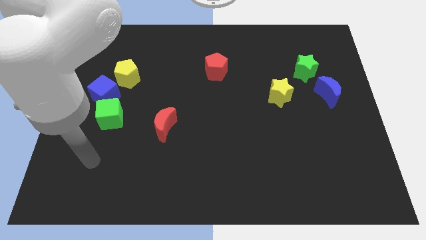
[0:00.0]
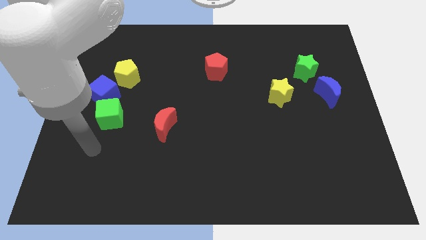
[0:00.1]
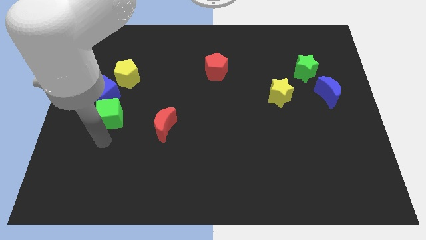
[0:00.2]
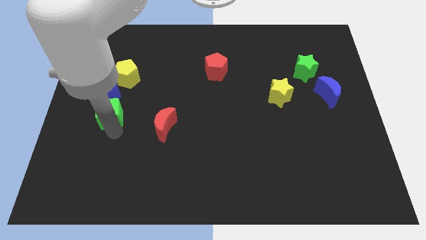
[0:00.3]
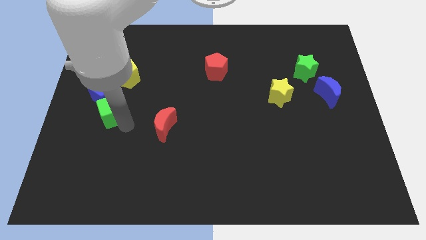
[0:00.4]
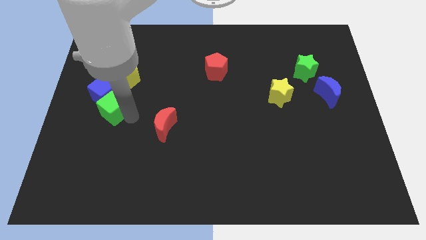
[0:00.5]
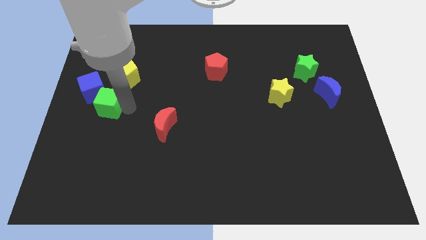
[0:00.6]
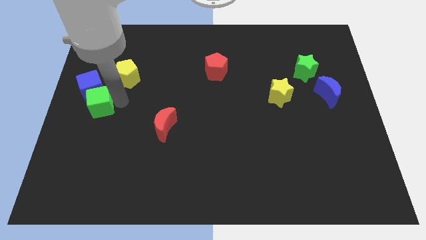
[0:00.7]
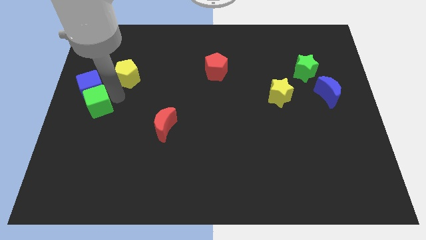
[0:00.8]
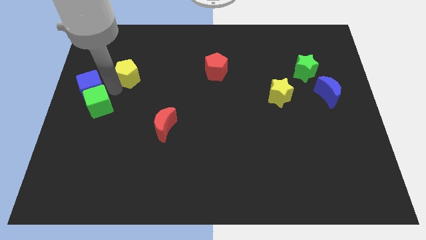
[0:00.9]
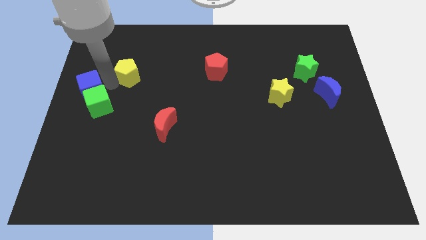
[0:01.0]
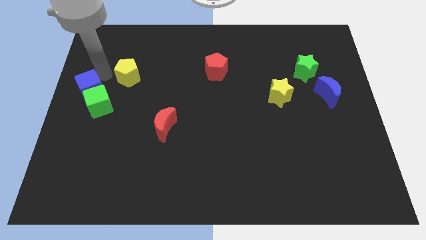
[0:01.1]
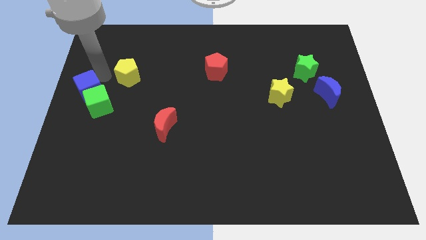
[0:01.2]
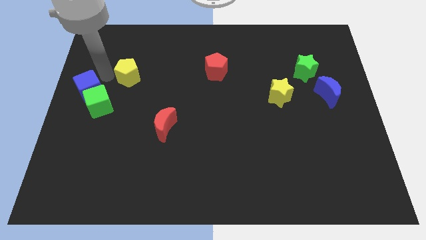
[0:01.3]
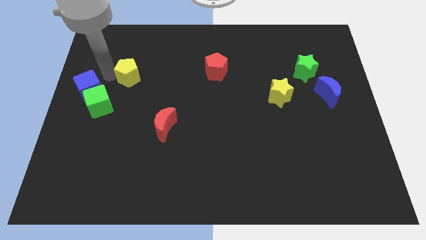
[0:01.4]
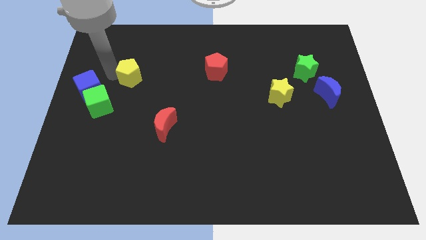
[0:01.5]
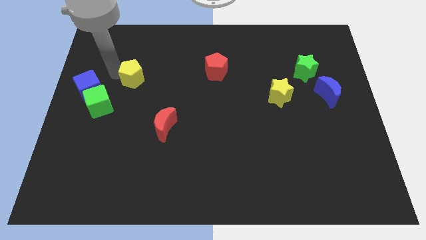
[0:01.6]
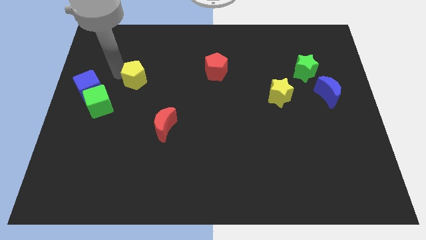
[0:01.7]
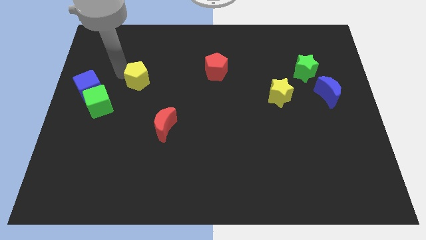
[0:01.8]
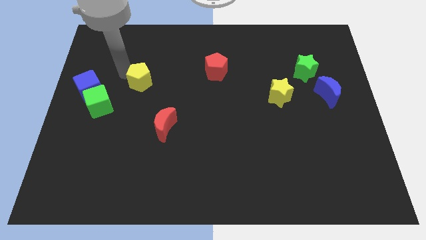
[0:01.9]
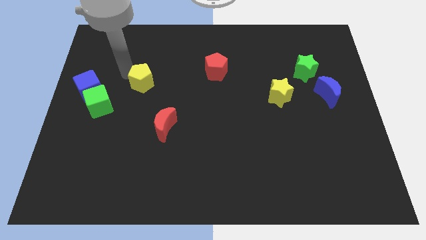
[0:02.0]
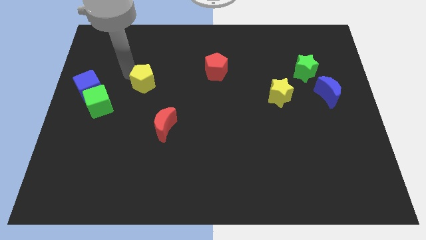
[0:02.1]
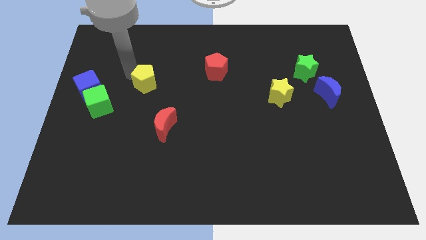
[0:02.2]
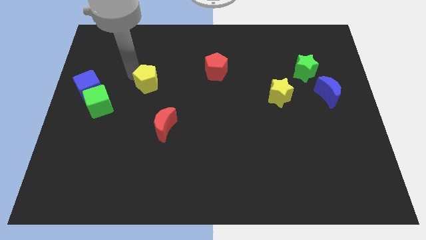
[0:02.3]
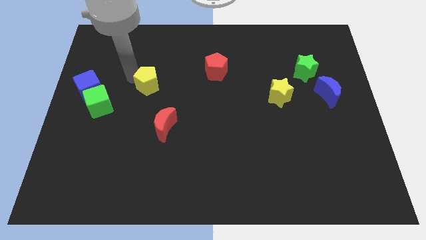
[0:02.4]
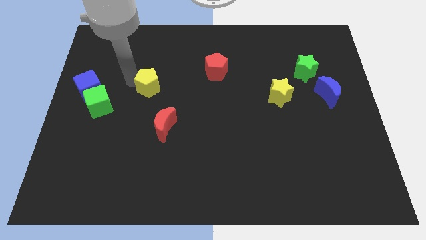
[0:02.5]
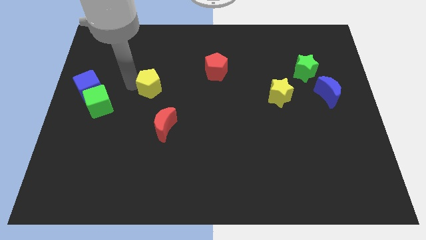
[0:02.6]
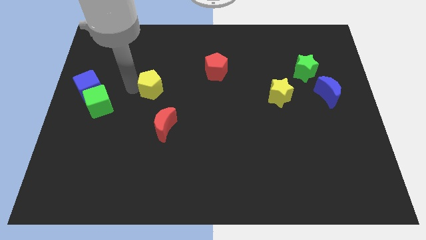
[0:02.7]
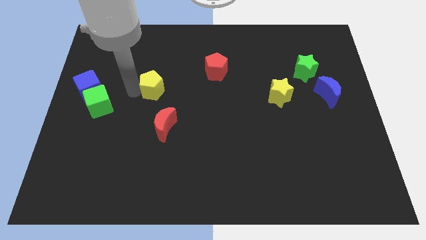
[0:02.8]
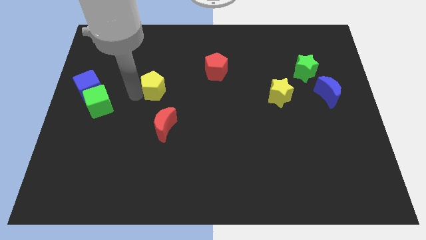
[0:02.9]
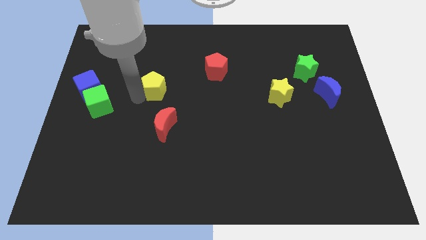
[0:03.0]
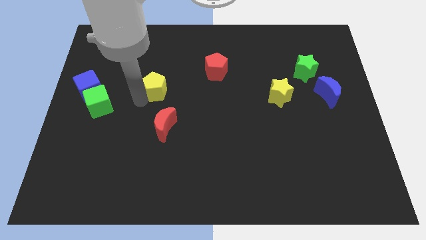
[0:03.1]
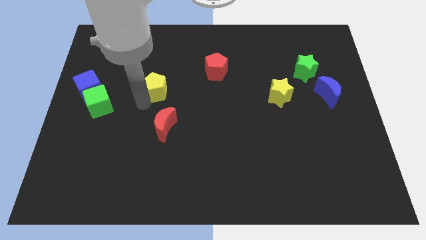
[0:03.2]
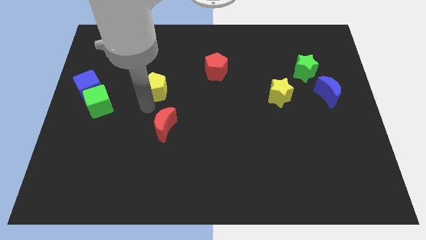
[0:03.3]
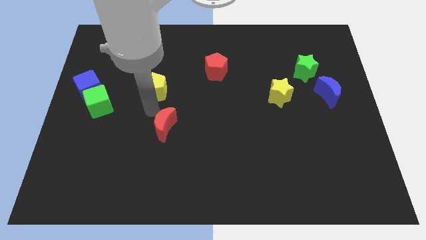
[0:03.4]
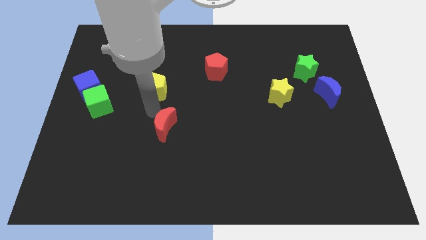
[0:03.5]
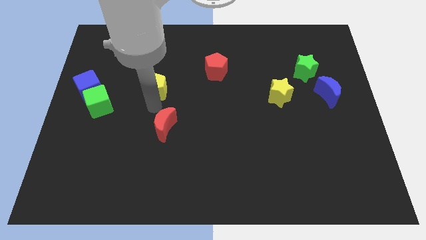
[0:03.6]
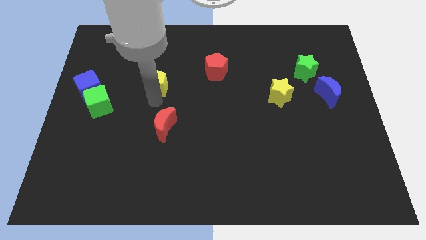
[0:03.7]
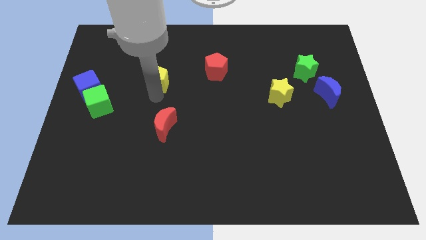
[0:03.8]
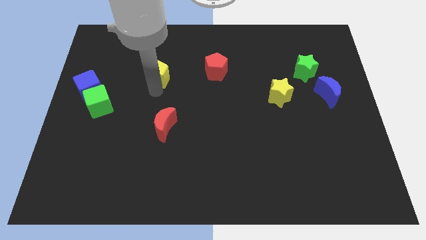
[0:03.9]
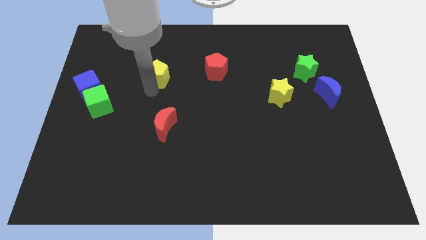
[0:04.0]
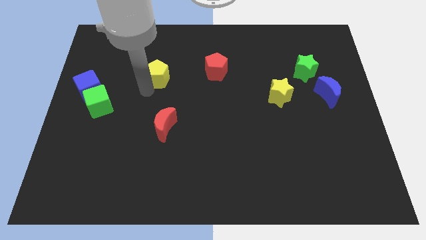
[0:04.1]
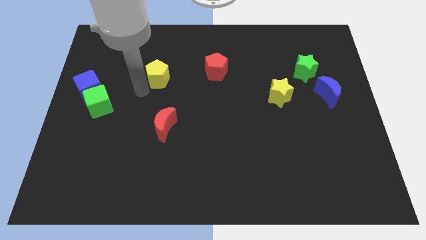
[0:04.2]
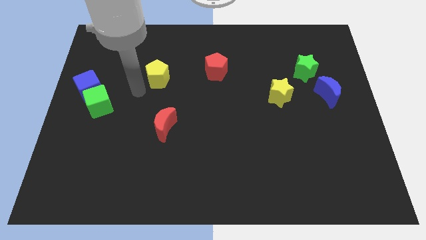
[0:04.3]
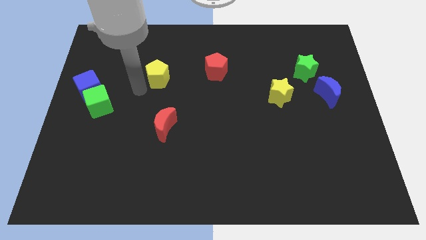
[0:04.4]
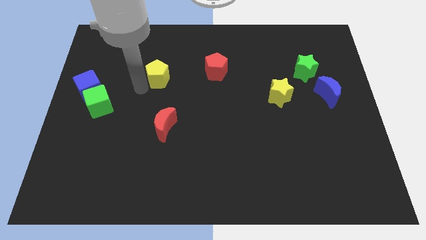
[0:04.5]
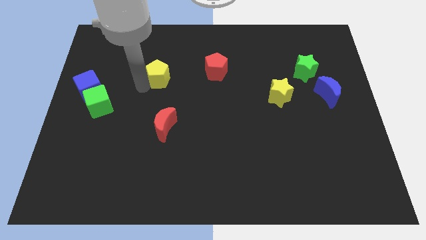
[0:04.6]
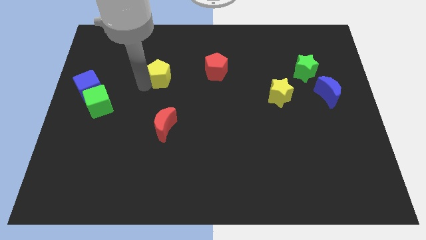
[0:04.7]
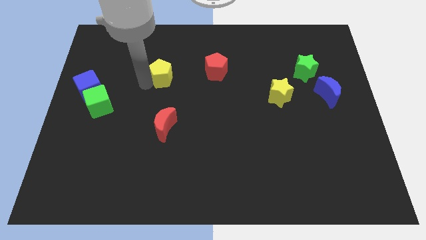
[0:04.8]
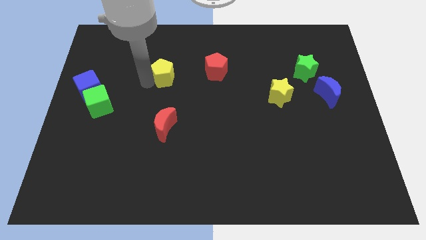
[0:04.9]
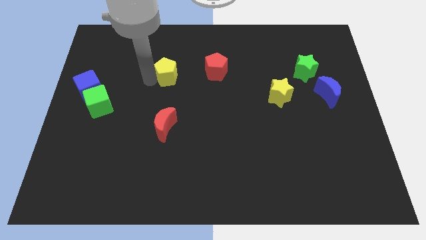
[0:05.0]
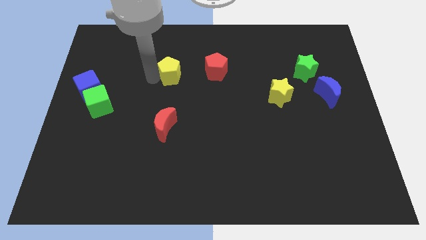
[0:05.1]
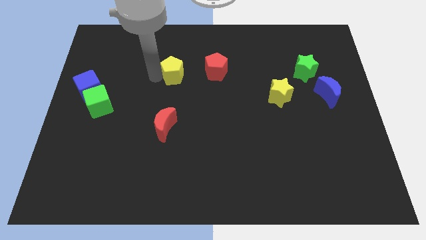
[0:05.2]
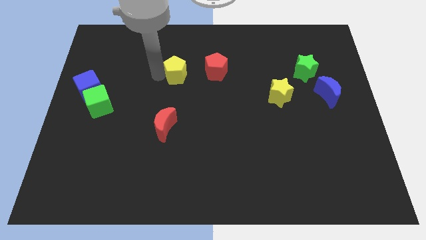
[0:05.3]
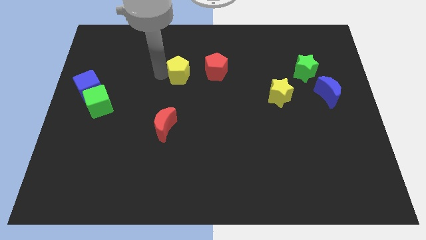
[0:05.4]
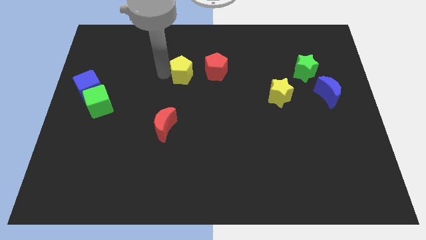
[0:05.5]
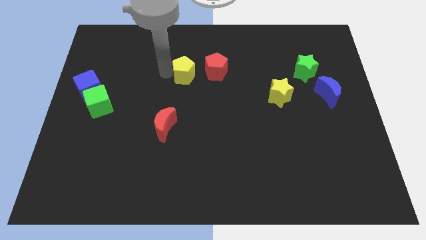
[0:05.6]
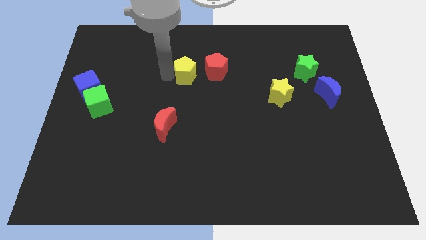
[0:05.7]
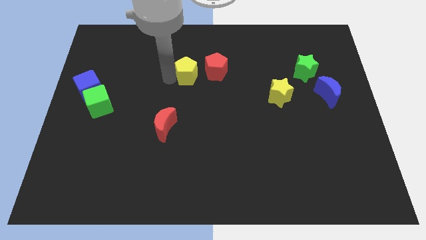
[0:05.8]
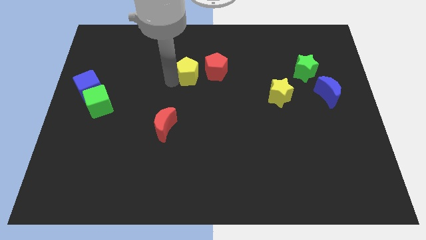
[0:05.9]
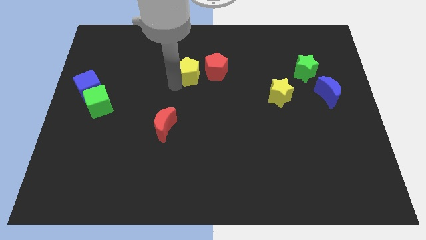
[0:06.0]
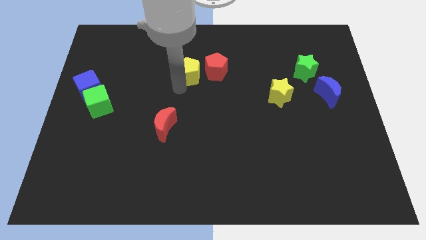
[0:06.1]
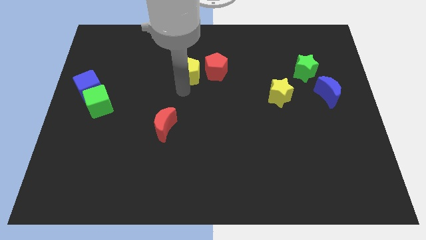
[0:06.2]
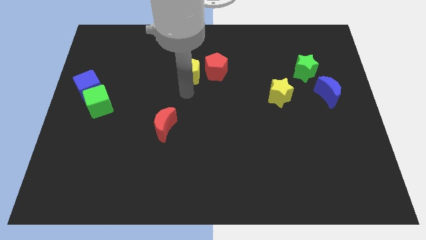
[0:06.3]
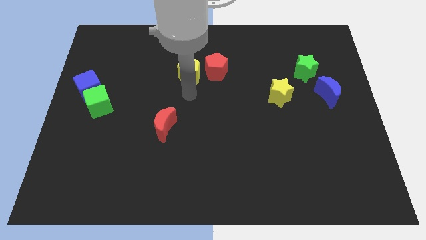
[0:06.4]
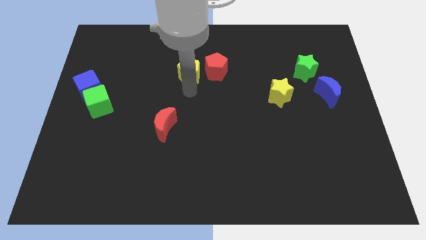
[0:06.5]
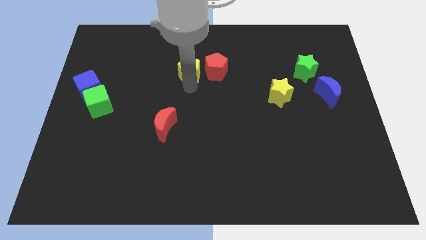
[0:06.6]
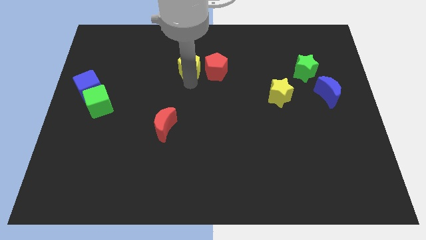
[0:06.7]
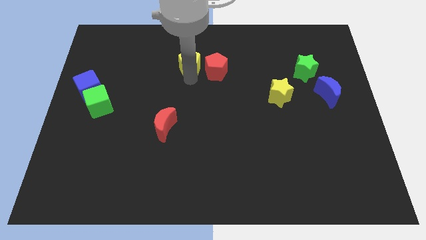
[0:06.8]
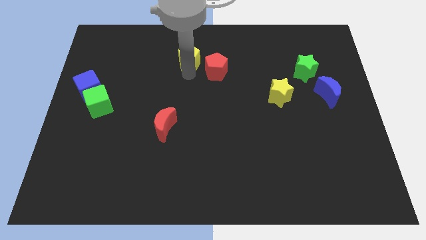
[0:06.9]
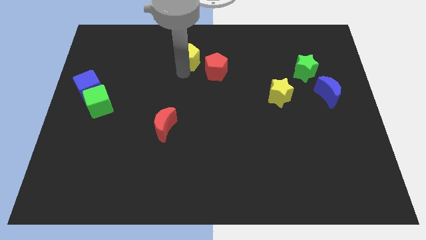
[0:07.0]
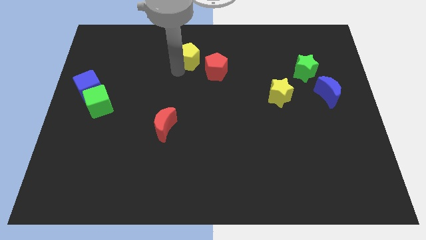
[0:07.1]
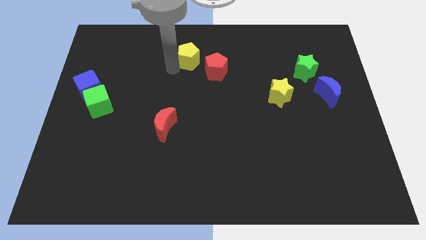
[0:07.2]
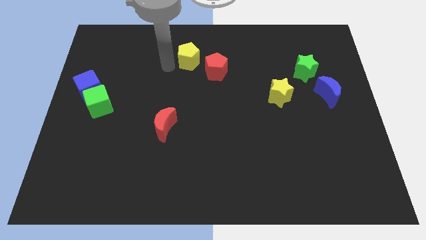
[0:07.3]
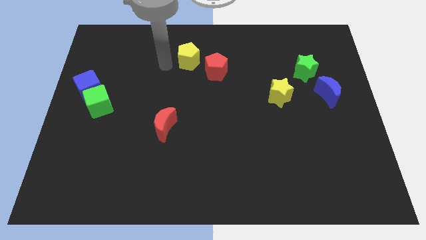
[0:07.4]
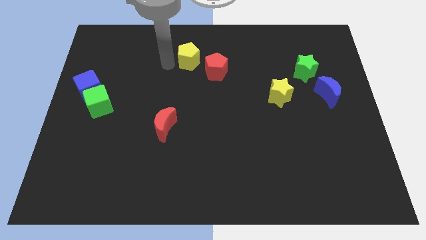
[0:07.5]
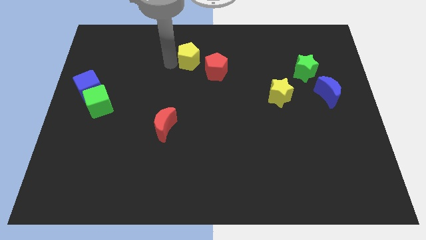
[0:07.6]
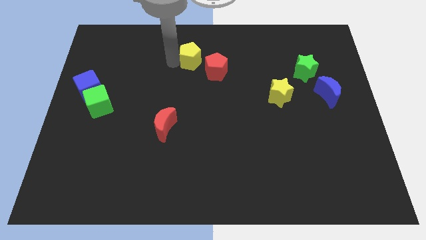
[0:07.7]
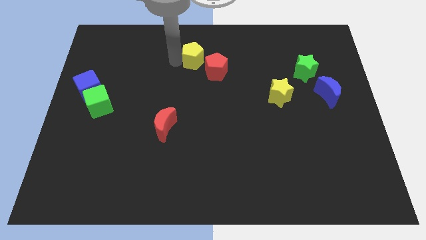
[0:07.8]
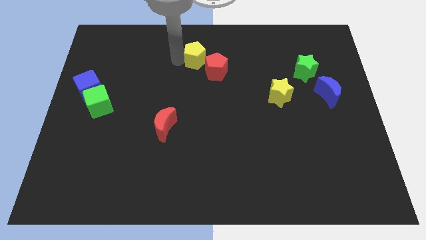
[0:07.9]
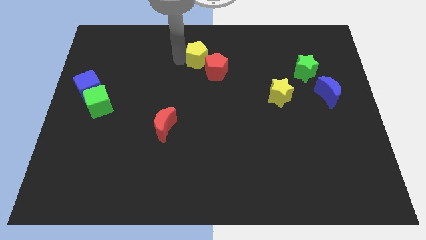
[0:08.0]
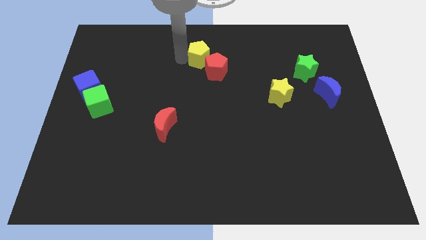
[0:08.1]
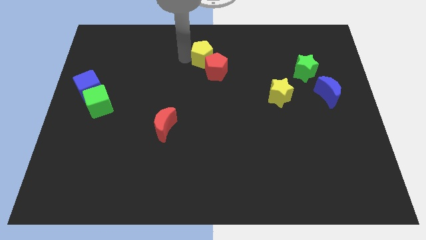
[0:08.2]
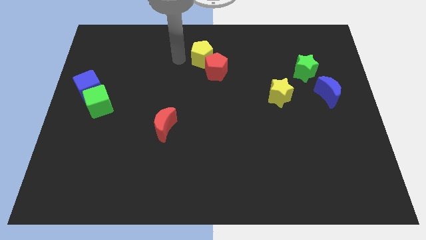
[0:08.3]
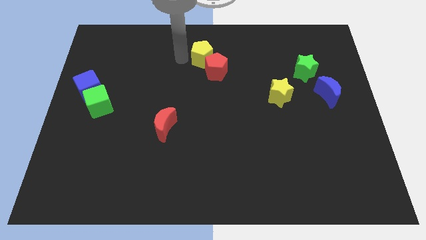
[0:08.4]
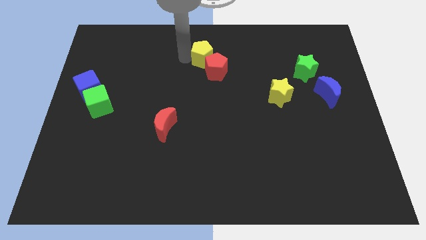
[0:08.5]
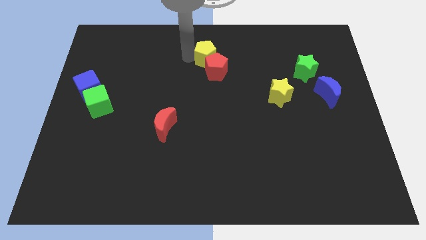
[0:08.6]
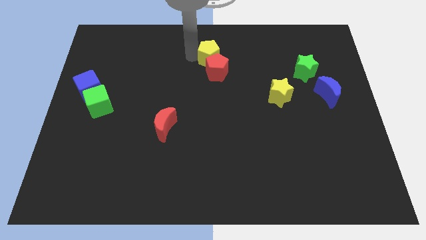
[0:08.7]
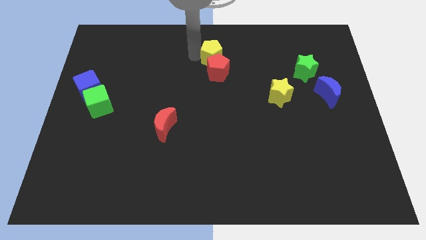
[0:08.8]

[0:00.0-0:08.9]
move the yellow pentagon to the top right side of the red pentagon
